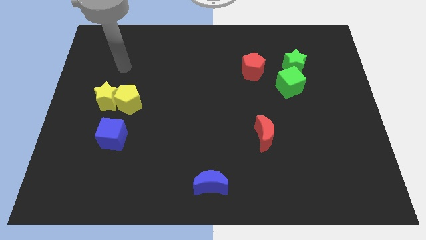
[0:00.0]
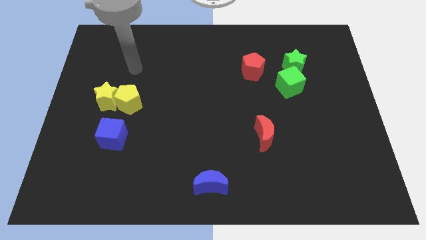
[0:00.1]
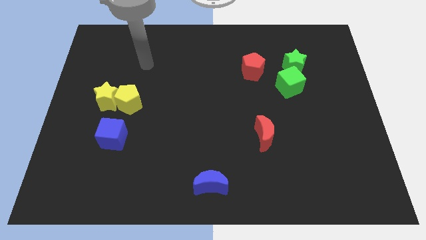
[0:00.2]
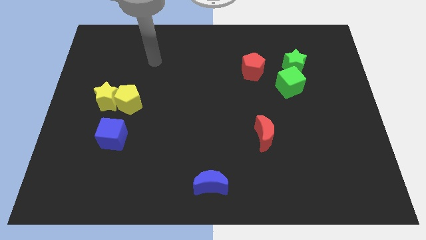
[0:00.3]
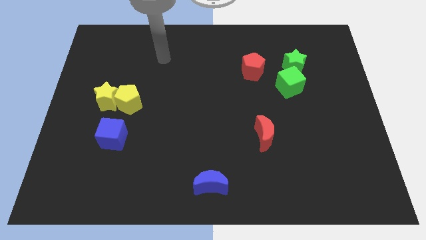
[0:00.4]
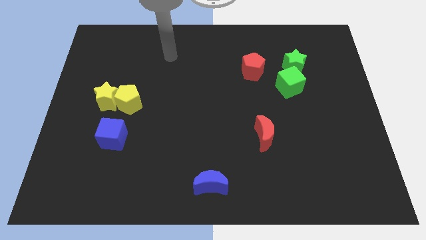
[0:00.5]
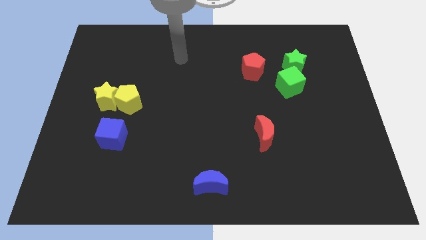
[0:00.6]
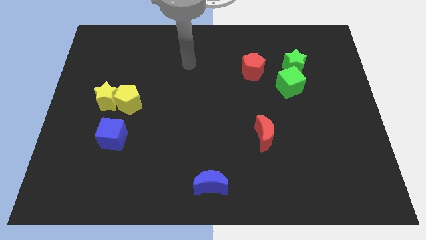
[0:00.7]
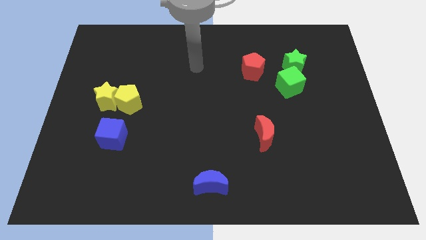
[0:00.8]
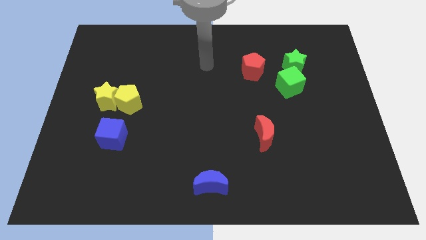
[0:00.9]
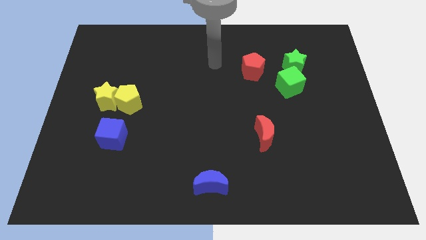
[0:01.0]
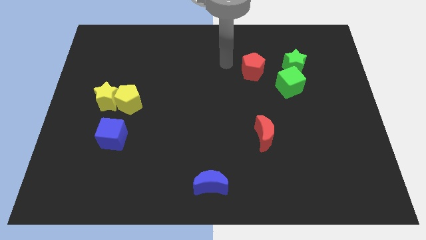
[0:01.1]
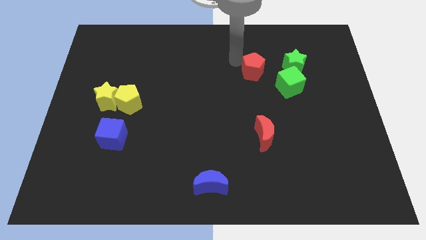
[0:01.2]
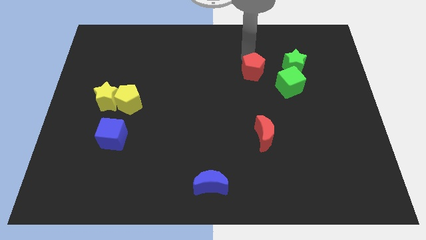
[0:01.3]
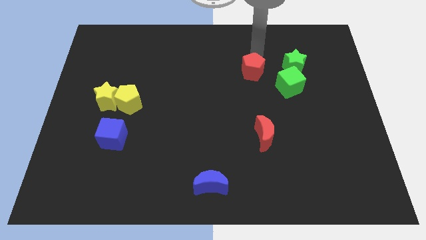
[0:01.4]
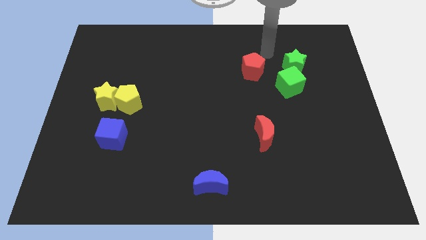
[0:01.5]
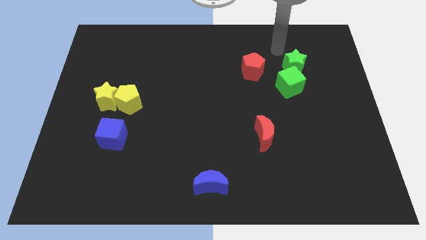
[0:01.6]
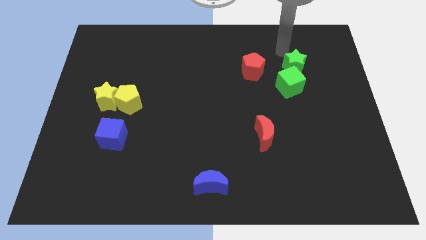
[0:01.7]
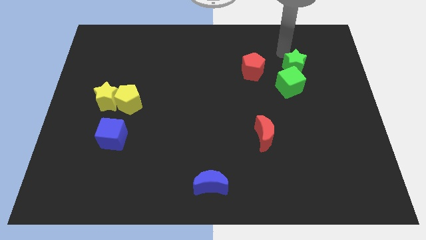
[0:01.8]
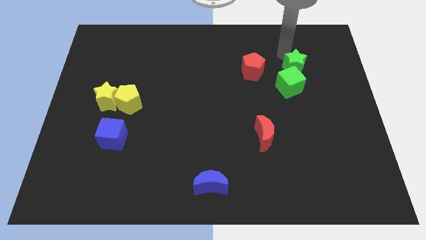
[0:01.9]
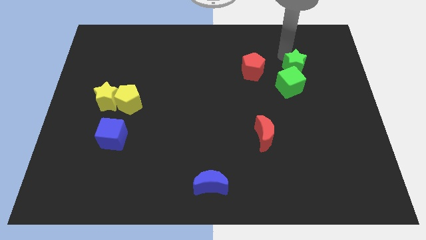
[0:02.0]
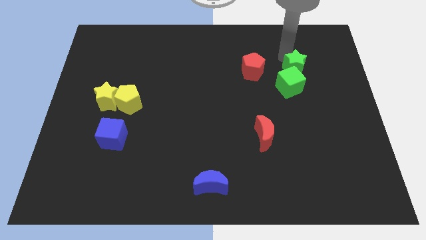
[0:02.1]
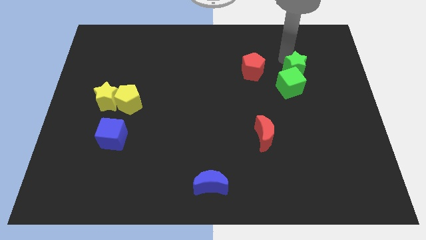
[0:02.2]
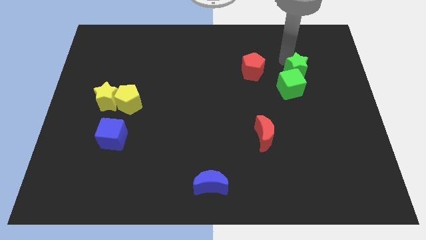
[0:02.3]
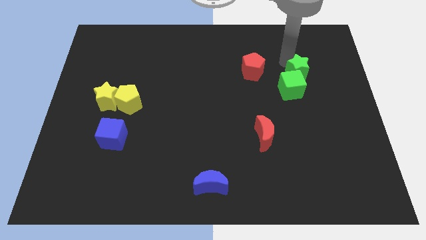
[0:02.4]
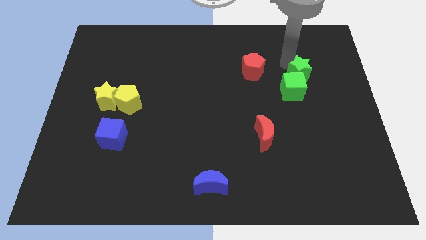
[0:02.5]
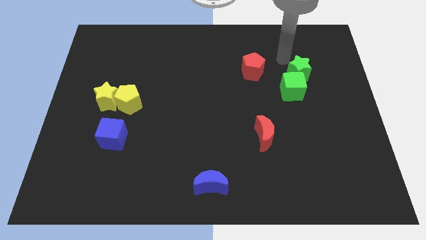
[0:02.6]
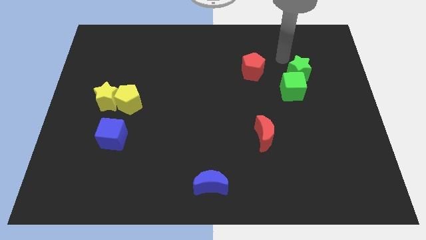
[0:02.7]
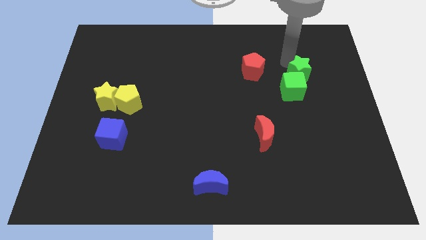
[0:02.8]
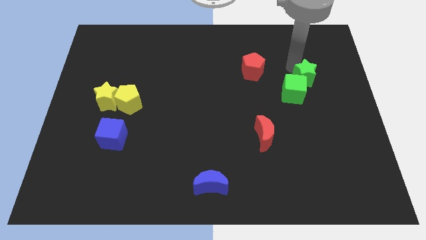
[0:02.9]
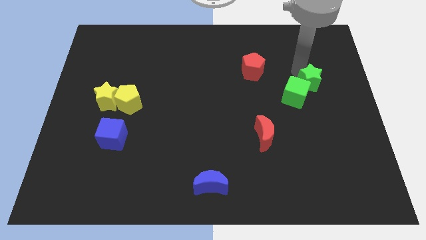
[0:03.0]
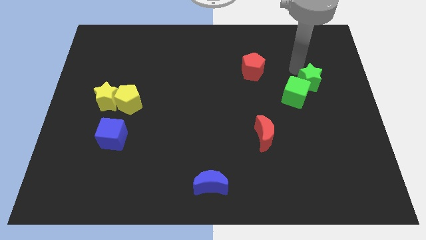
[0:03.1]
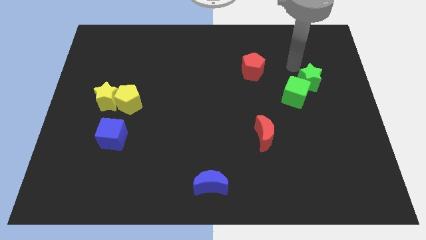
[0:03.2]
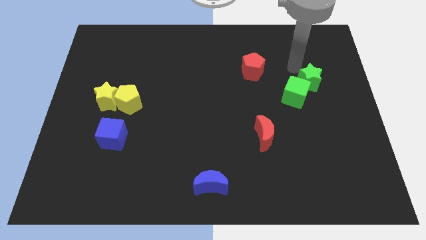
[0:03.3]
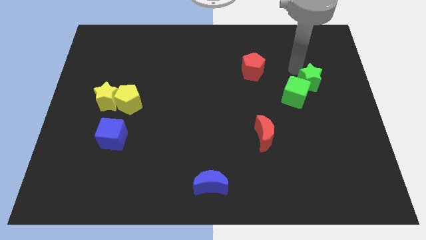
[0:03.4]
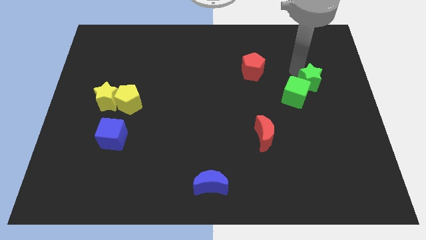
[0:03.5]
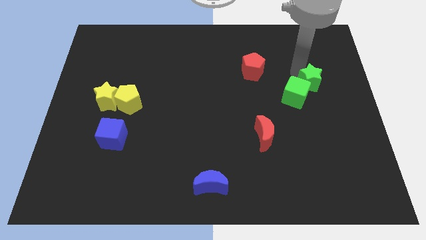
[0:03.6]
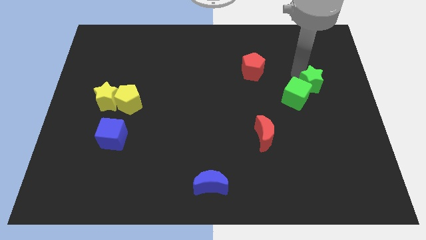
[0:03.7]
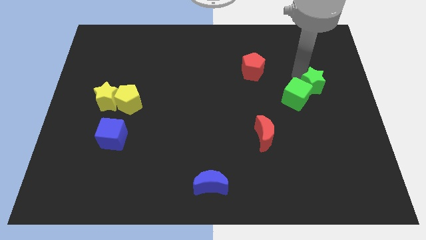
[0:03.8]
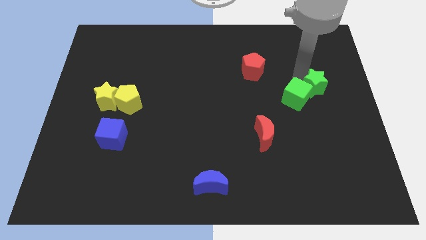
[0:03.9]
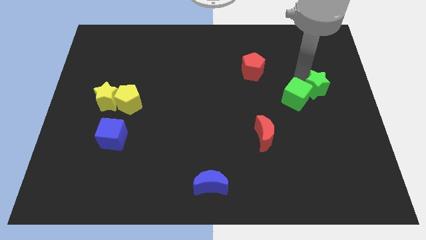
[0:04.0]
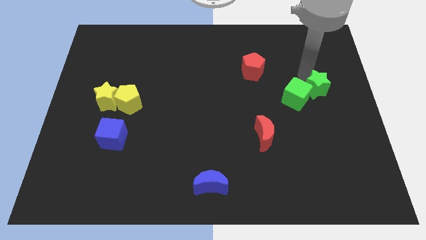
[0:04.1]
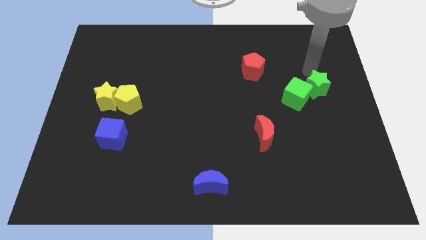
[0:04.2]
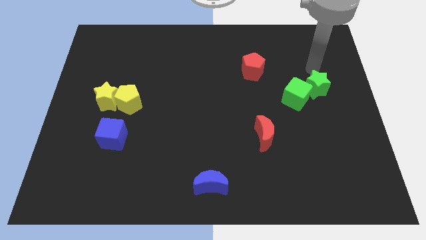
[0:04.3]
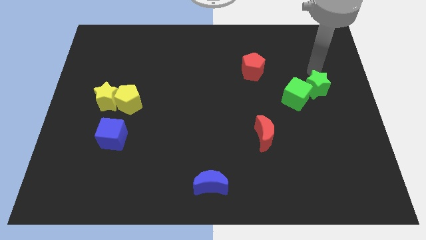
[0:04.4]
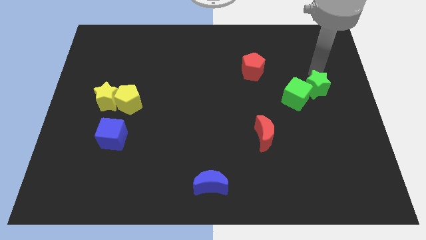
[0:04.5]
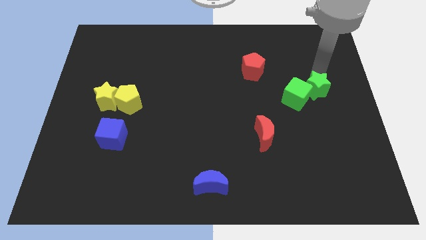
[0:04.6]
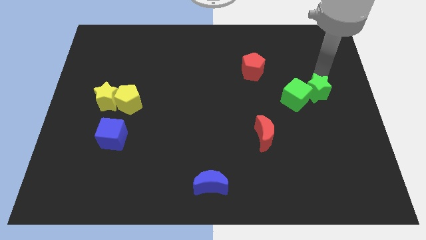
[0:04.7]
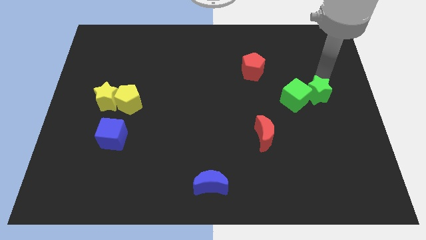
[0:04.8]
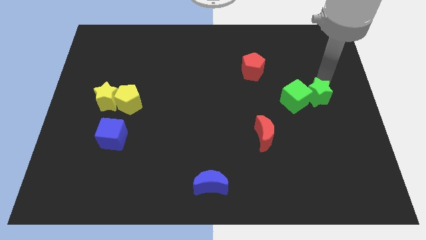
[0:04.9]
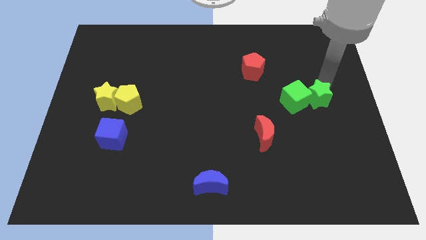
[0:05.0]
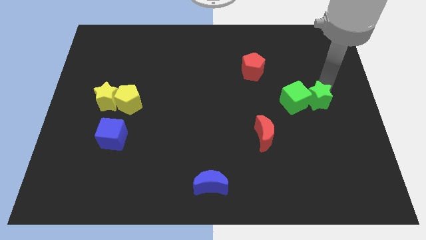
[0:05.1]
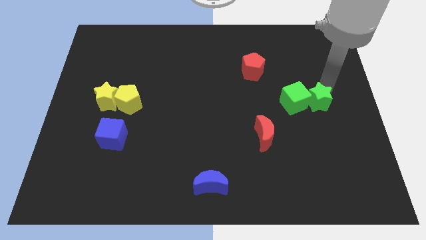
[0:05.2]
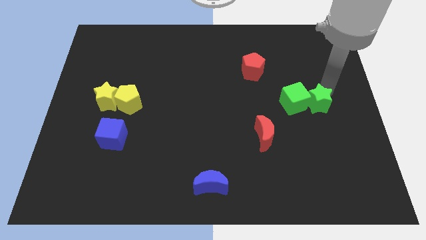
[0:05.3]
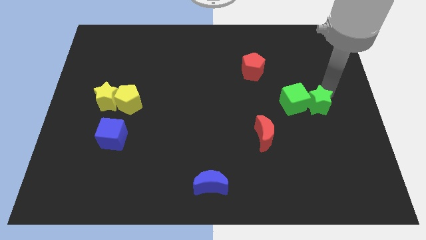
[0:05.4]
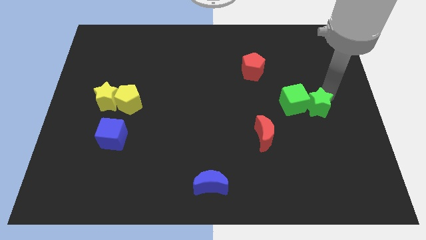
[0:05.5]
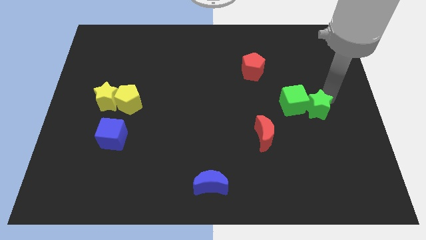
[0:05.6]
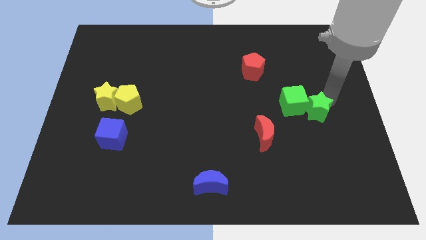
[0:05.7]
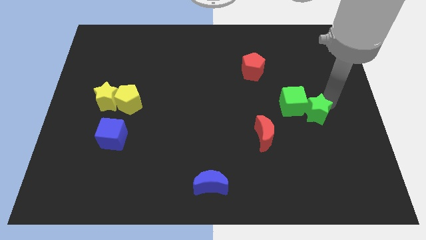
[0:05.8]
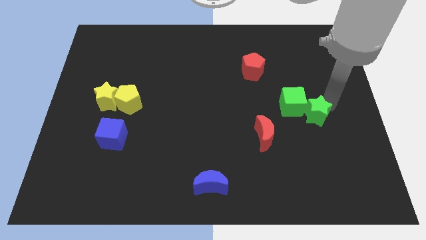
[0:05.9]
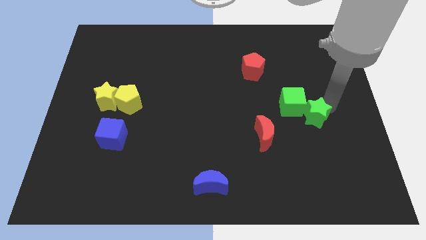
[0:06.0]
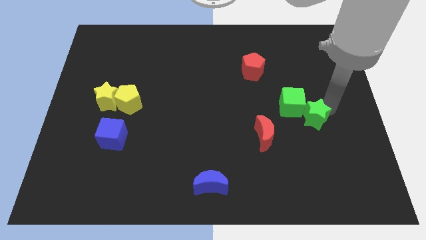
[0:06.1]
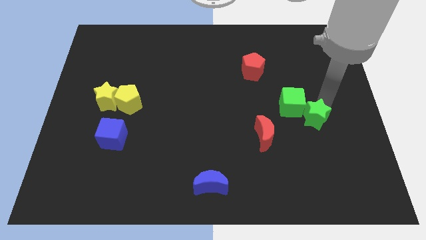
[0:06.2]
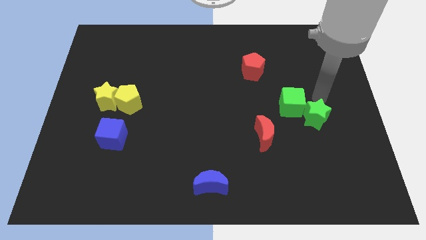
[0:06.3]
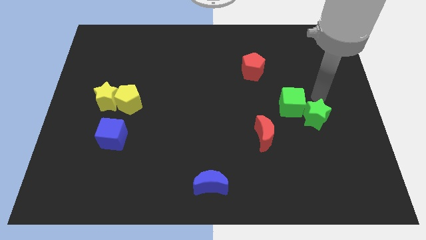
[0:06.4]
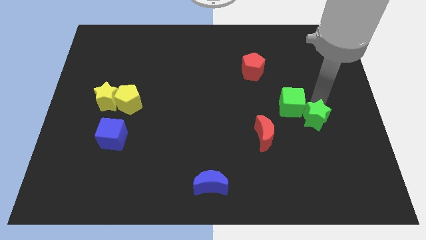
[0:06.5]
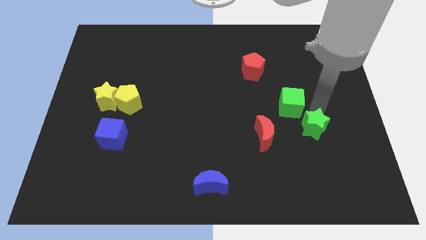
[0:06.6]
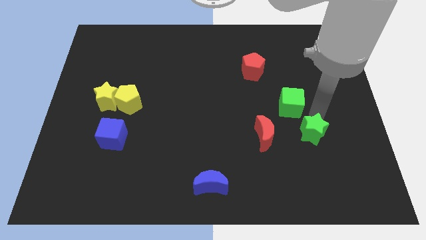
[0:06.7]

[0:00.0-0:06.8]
move the green star down

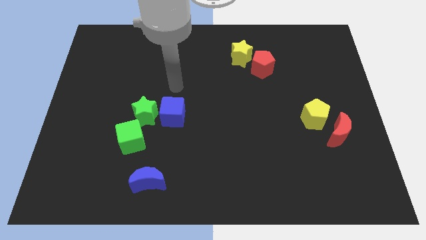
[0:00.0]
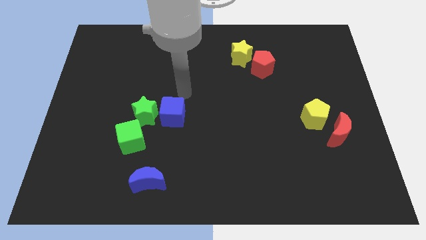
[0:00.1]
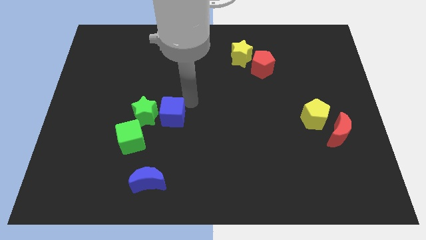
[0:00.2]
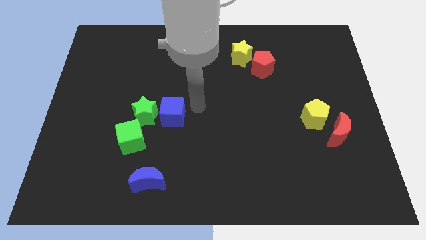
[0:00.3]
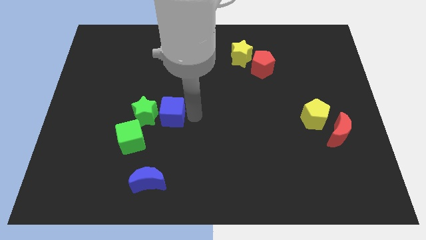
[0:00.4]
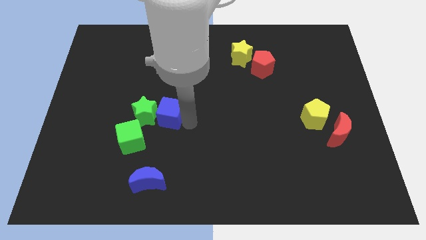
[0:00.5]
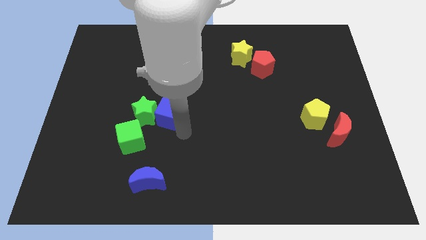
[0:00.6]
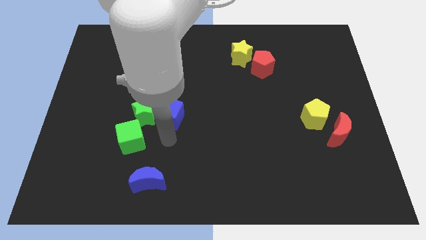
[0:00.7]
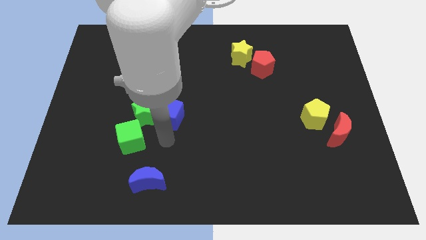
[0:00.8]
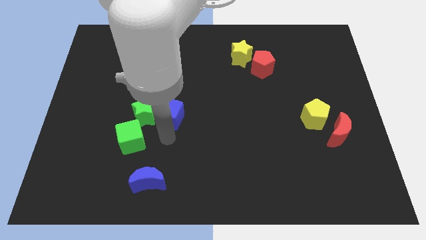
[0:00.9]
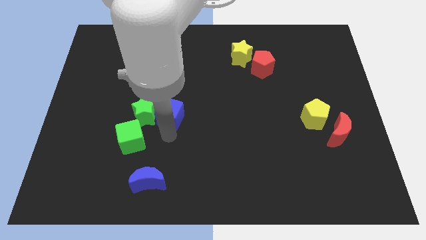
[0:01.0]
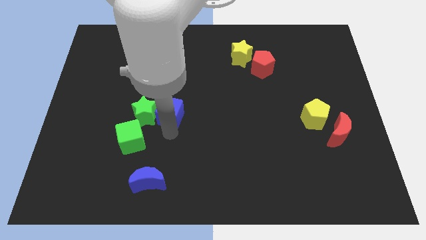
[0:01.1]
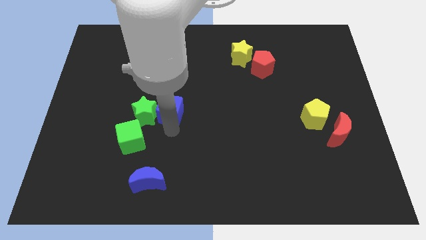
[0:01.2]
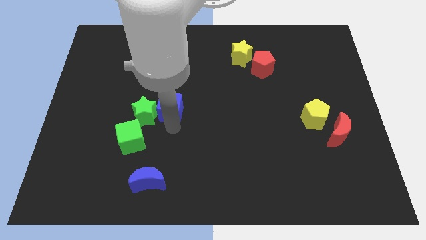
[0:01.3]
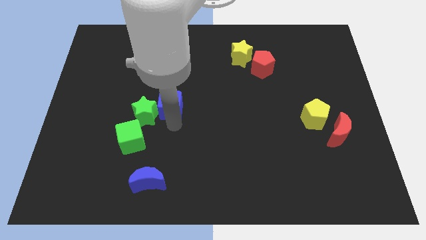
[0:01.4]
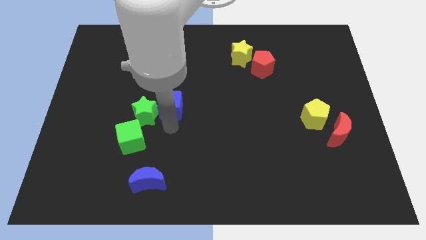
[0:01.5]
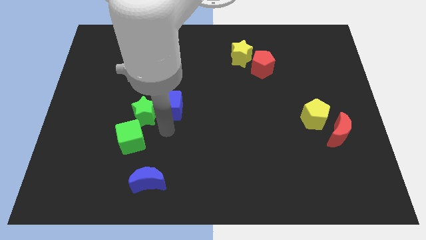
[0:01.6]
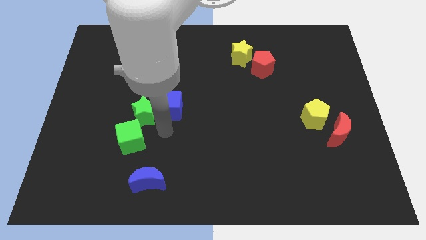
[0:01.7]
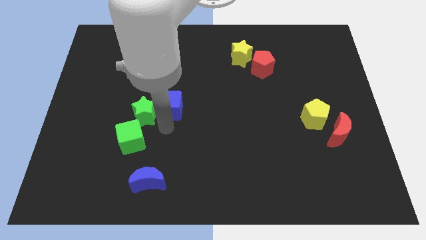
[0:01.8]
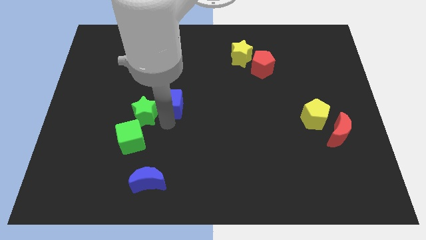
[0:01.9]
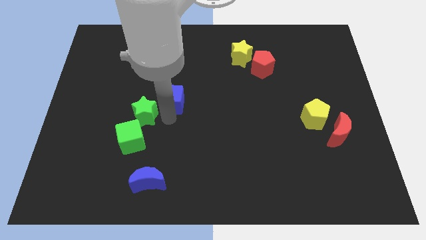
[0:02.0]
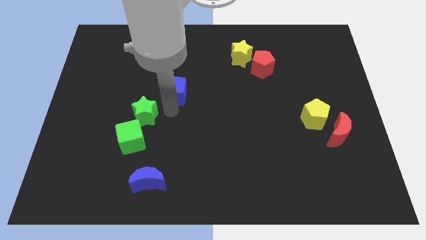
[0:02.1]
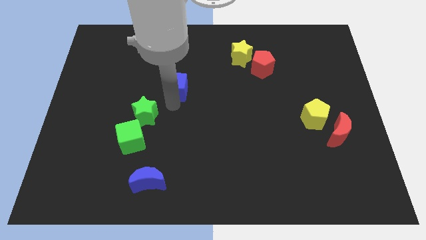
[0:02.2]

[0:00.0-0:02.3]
move the blue cube up somewhat
